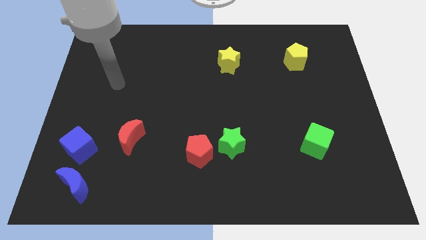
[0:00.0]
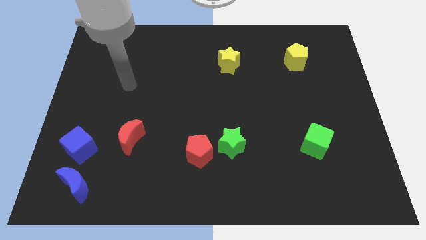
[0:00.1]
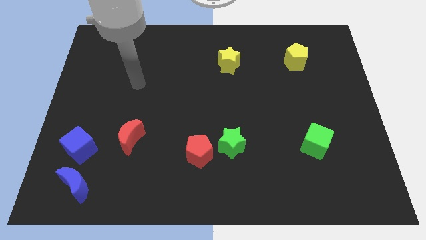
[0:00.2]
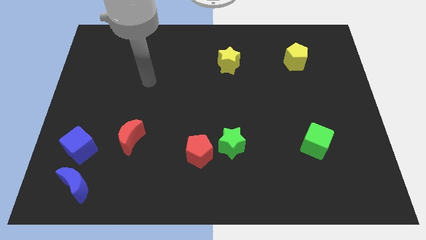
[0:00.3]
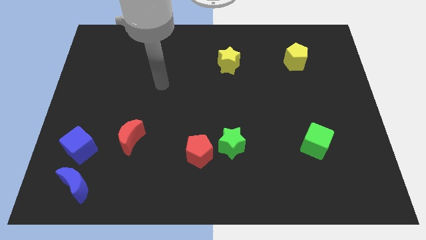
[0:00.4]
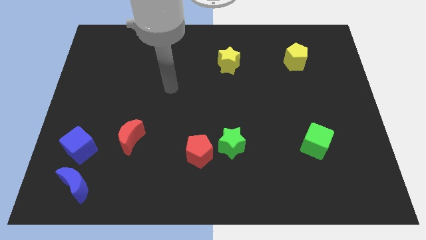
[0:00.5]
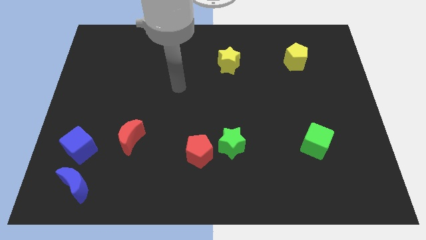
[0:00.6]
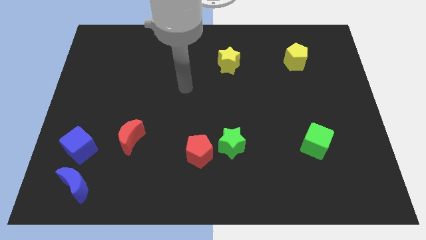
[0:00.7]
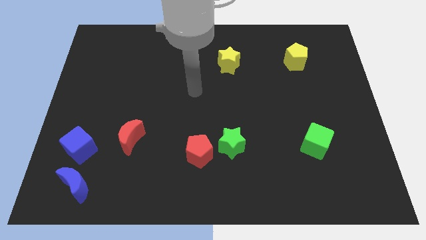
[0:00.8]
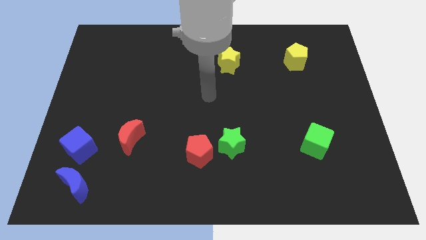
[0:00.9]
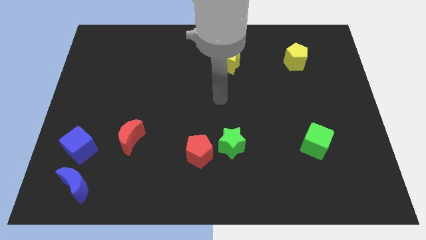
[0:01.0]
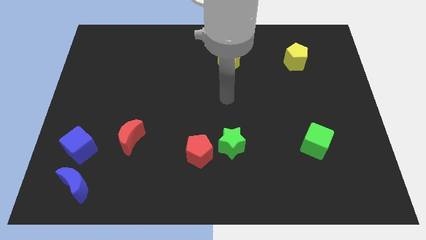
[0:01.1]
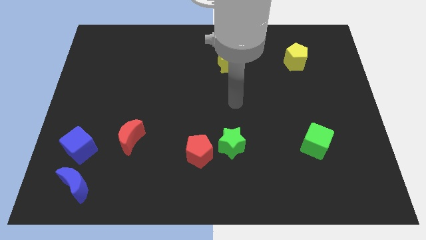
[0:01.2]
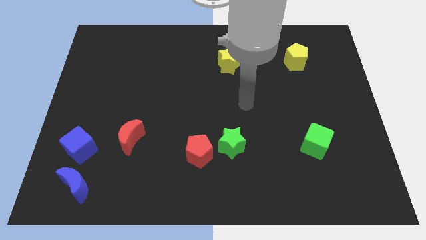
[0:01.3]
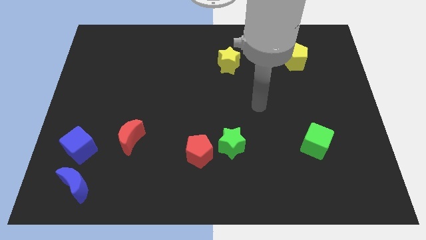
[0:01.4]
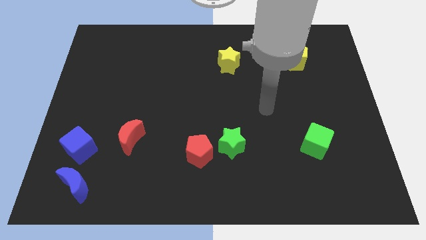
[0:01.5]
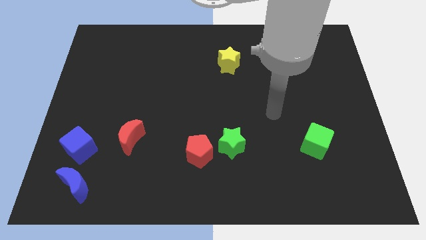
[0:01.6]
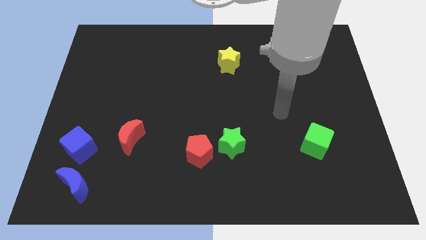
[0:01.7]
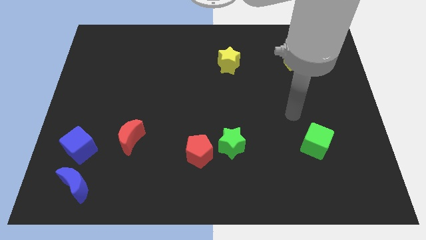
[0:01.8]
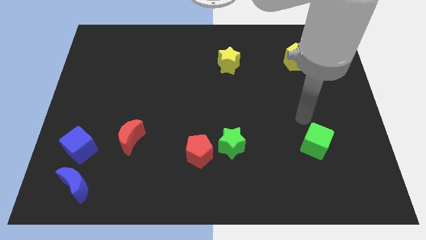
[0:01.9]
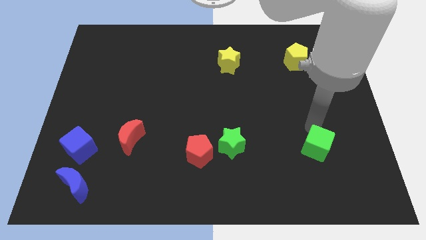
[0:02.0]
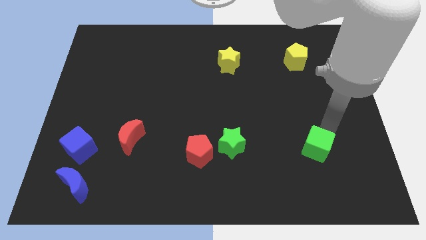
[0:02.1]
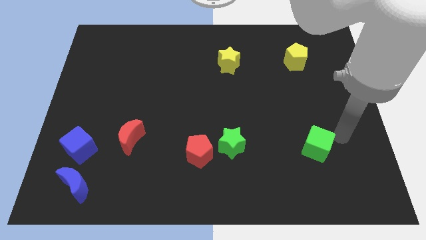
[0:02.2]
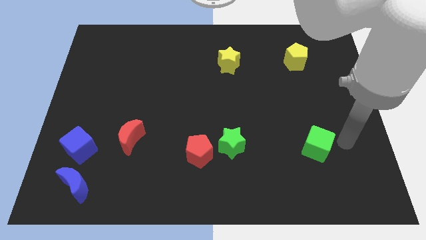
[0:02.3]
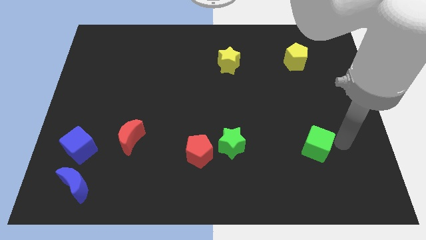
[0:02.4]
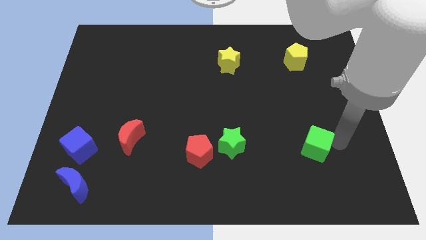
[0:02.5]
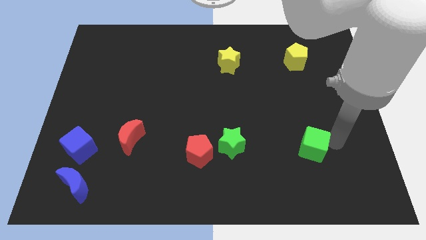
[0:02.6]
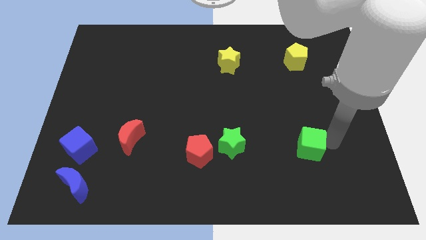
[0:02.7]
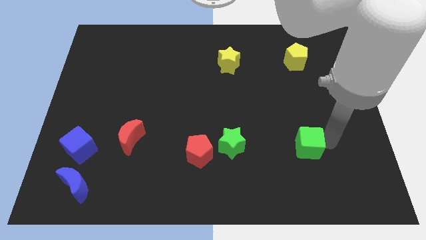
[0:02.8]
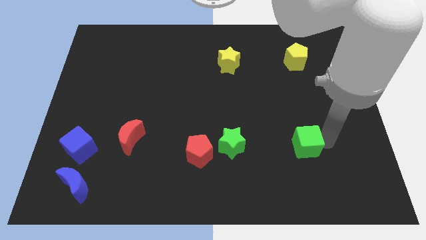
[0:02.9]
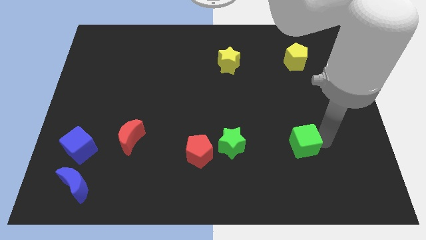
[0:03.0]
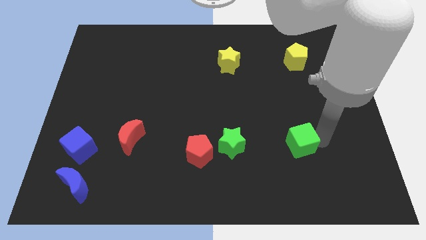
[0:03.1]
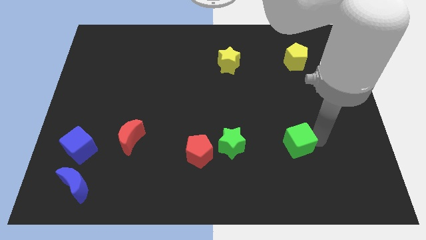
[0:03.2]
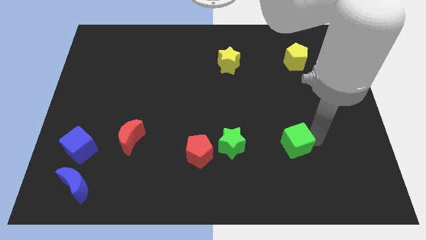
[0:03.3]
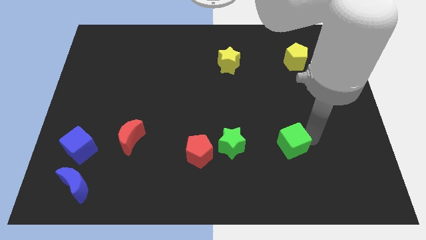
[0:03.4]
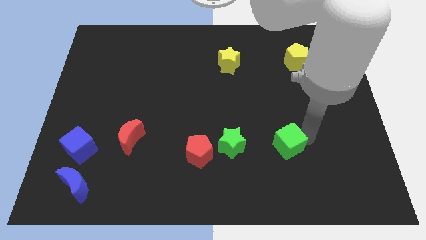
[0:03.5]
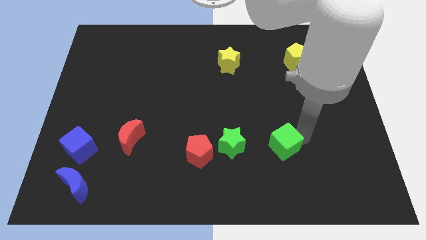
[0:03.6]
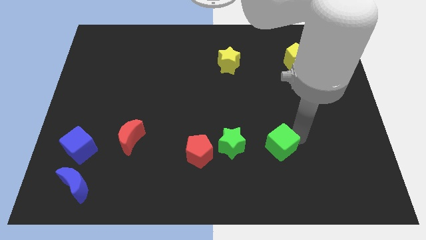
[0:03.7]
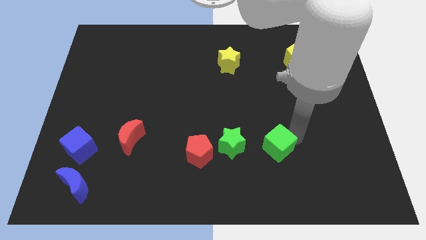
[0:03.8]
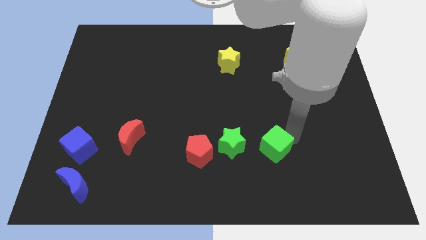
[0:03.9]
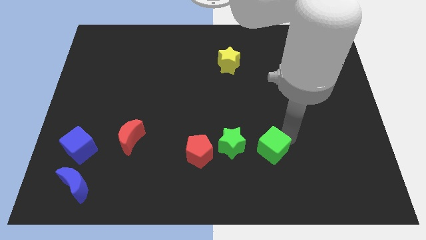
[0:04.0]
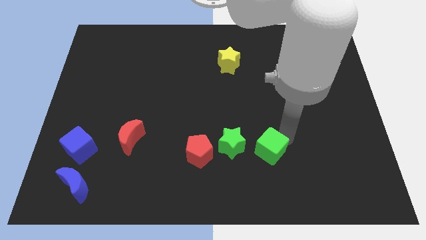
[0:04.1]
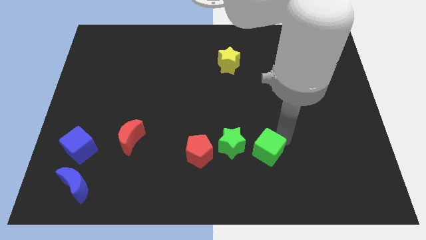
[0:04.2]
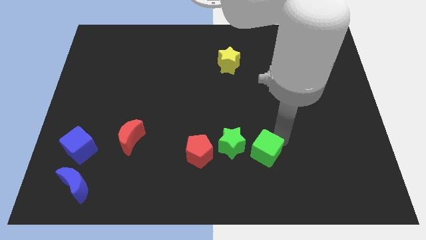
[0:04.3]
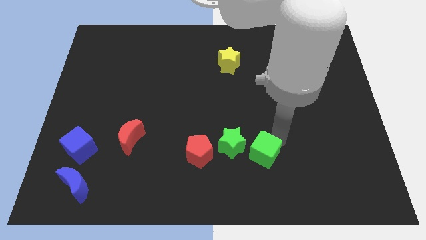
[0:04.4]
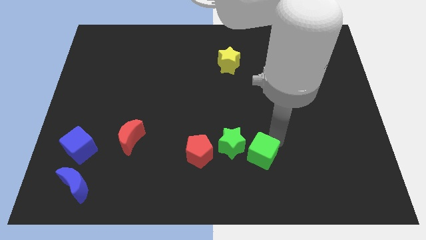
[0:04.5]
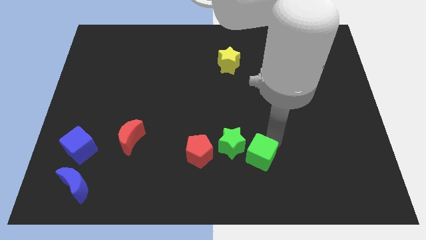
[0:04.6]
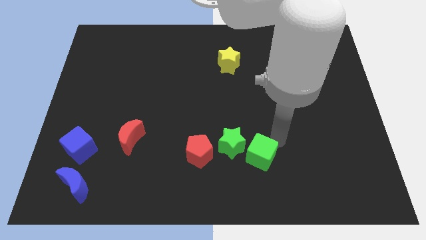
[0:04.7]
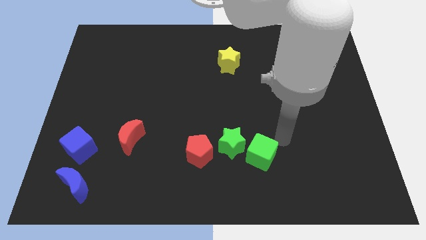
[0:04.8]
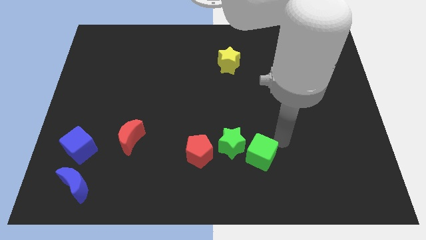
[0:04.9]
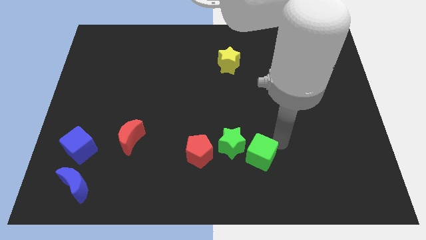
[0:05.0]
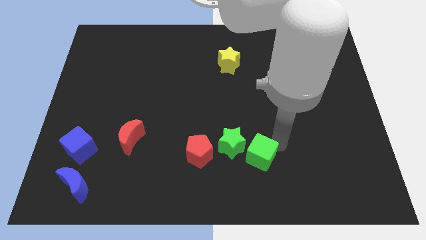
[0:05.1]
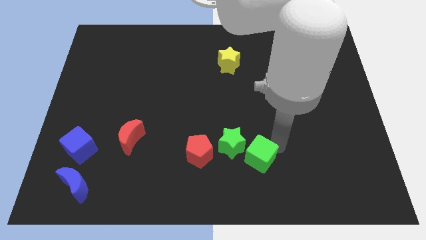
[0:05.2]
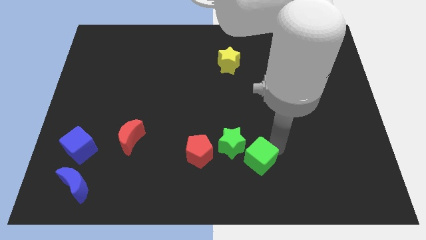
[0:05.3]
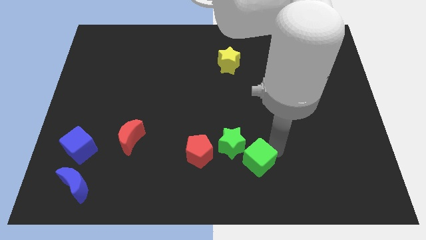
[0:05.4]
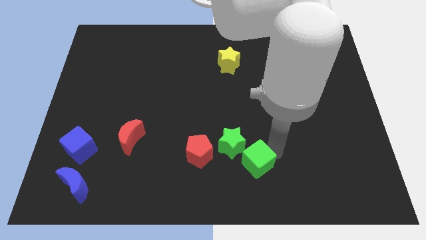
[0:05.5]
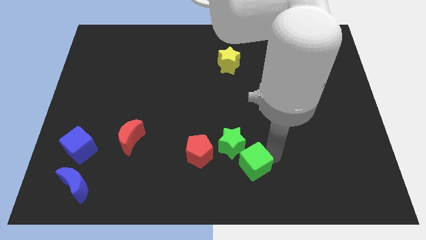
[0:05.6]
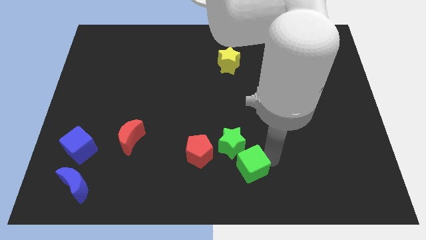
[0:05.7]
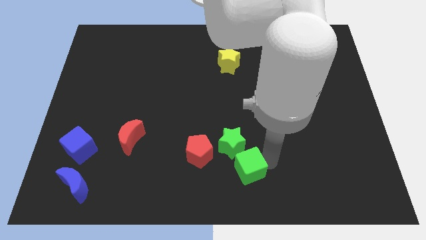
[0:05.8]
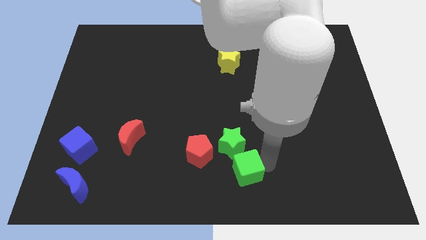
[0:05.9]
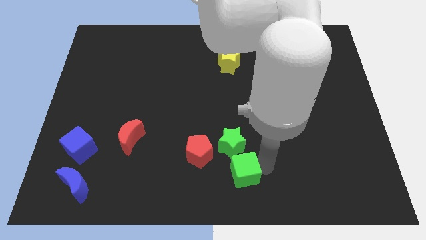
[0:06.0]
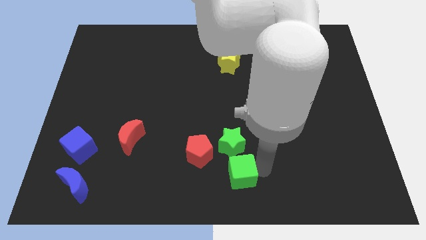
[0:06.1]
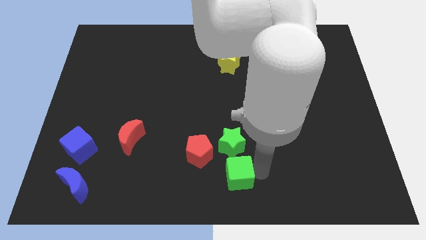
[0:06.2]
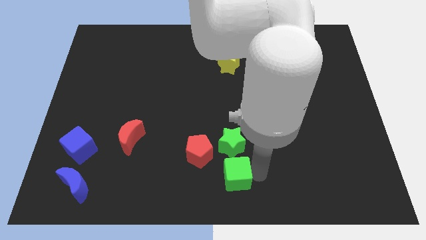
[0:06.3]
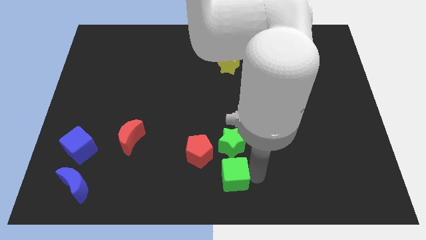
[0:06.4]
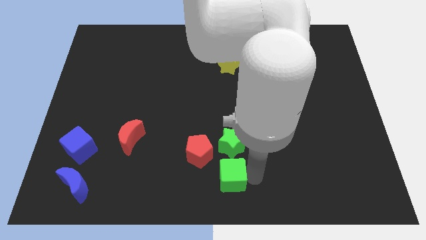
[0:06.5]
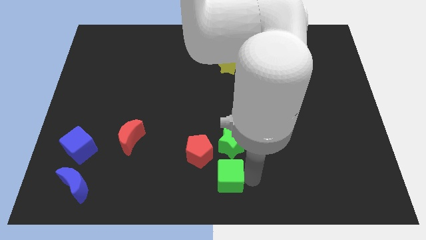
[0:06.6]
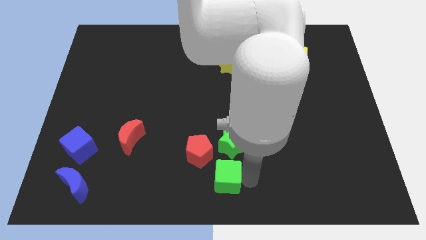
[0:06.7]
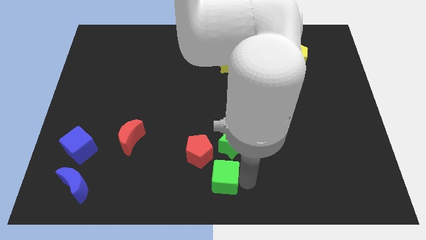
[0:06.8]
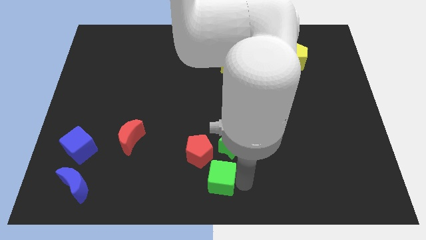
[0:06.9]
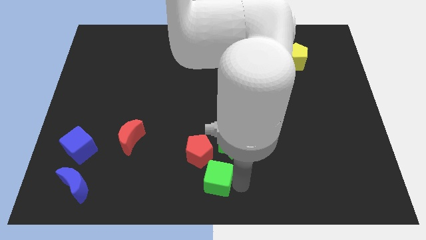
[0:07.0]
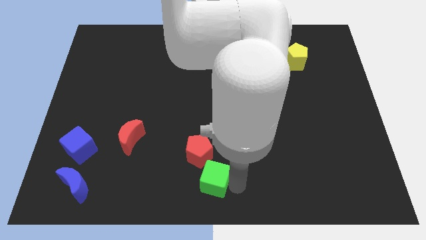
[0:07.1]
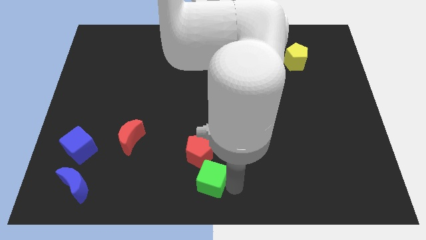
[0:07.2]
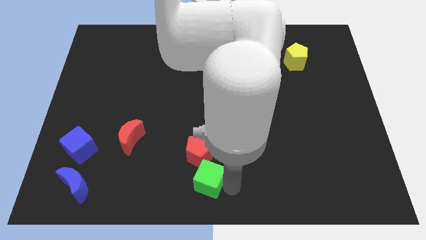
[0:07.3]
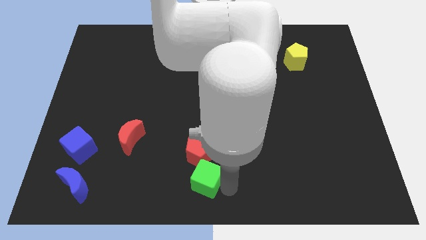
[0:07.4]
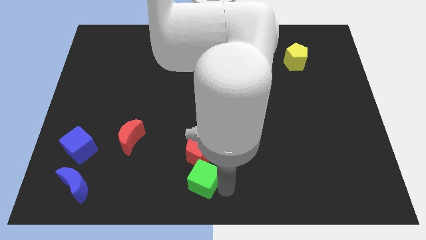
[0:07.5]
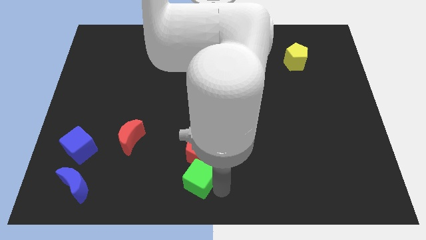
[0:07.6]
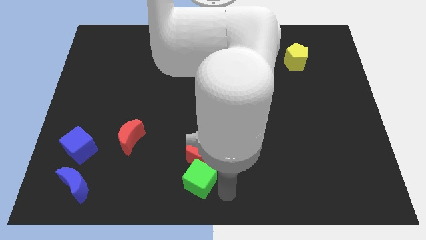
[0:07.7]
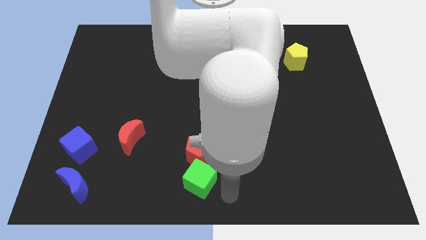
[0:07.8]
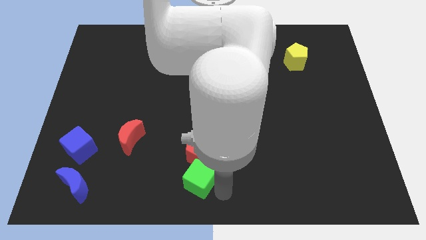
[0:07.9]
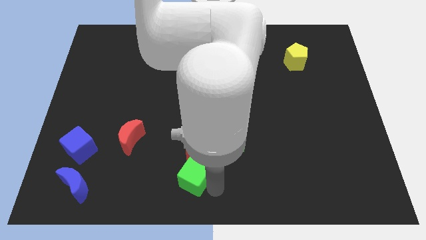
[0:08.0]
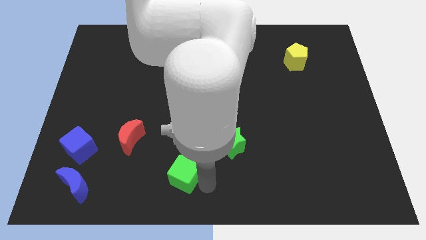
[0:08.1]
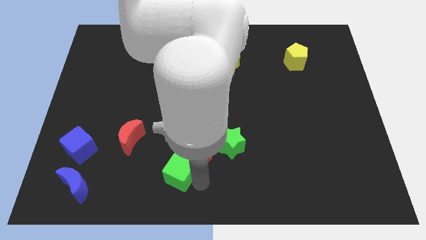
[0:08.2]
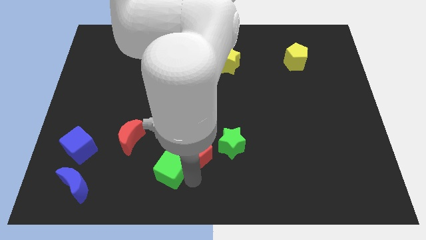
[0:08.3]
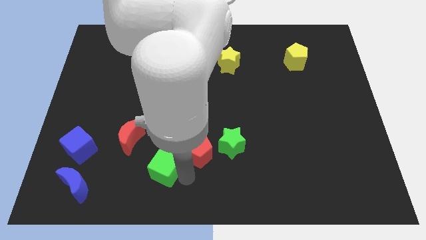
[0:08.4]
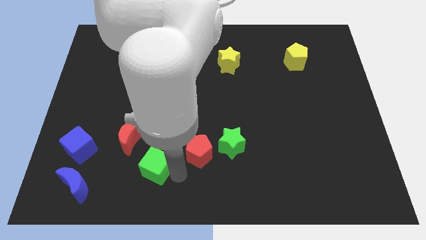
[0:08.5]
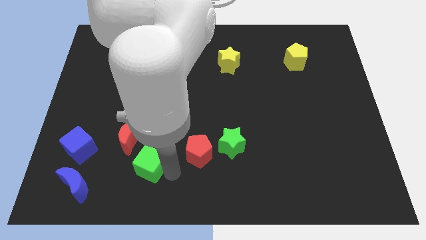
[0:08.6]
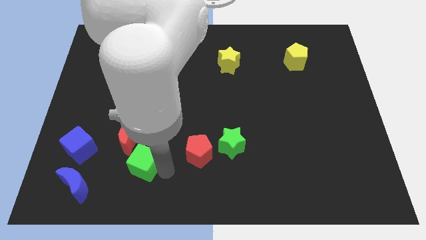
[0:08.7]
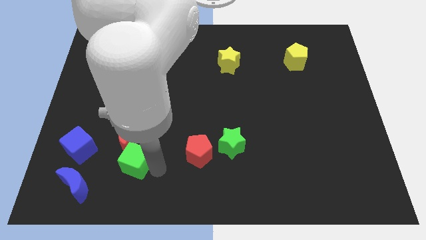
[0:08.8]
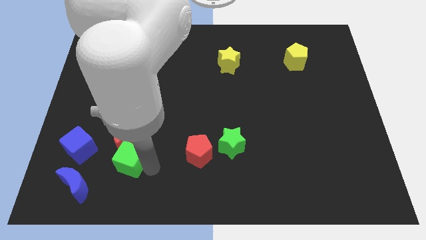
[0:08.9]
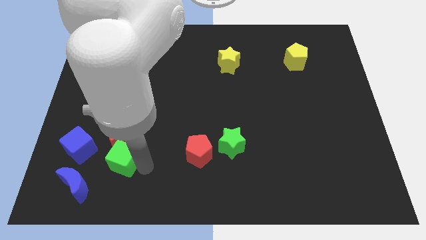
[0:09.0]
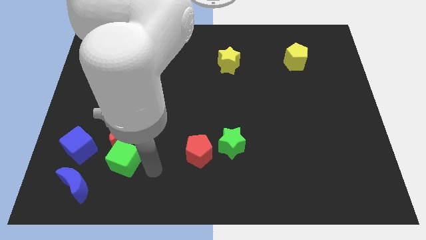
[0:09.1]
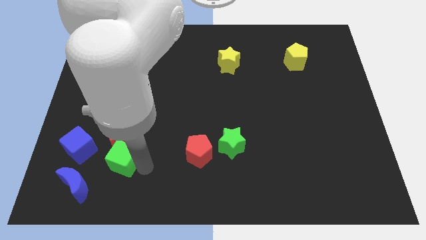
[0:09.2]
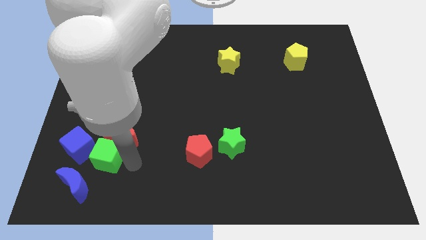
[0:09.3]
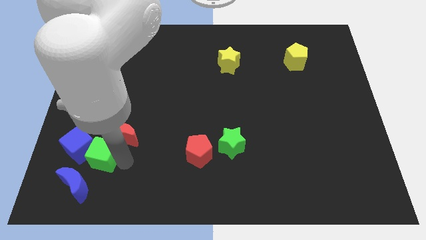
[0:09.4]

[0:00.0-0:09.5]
move the green cube next to the blue cube
